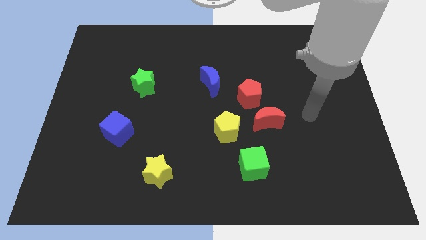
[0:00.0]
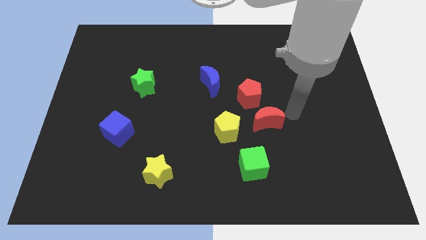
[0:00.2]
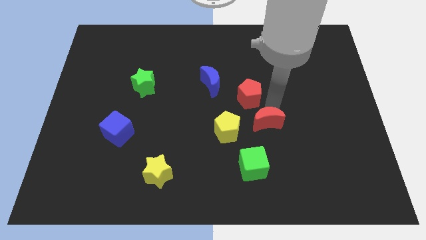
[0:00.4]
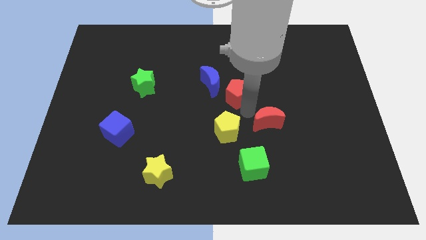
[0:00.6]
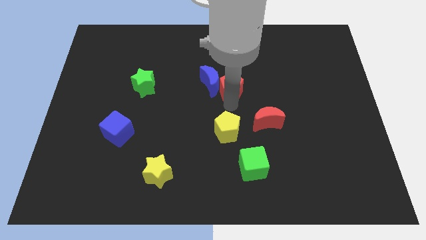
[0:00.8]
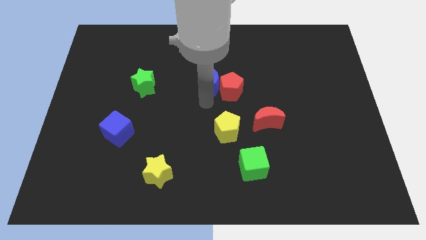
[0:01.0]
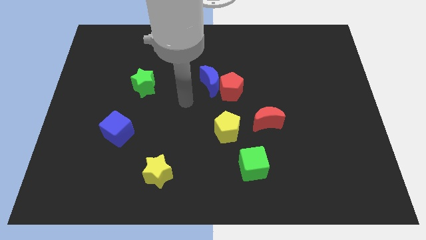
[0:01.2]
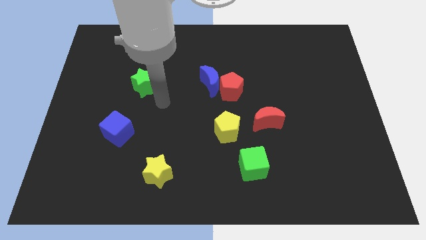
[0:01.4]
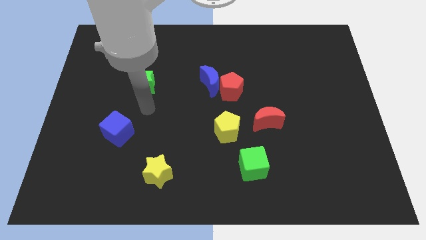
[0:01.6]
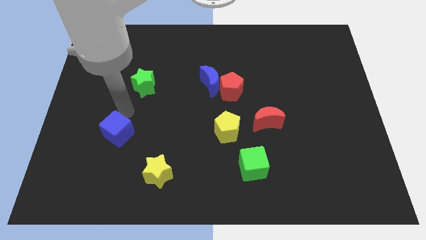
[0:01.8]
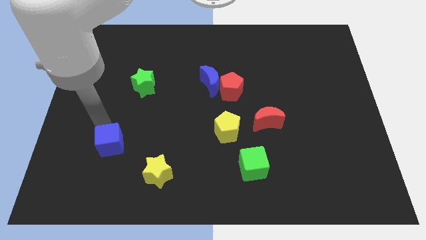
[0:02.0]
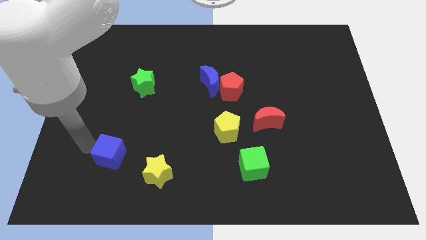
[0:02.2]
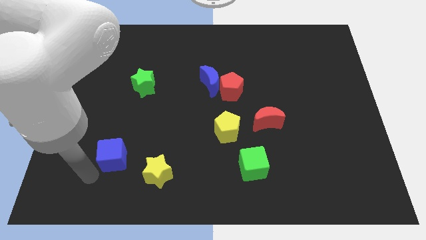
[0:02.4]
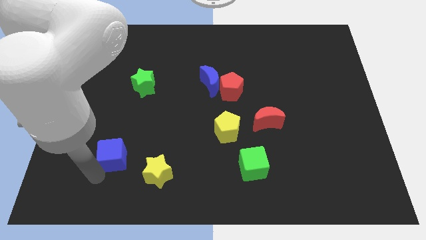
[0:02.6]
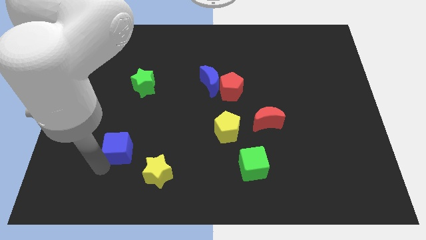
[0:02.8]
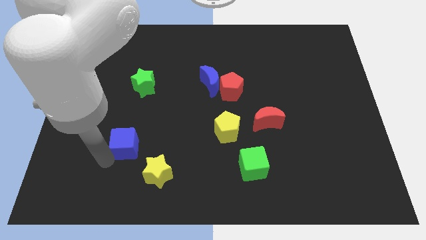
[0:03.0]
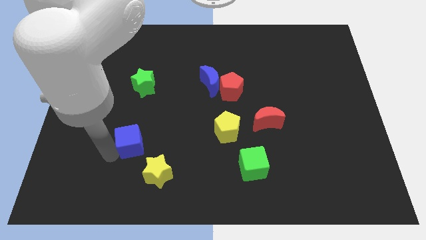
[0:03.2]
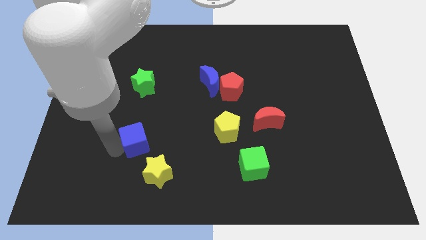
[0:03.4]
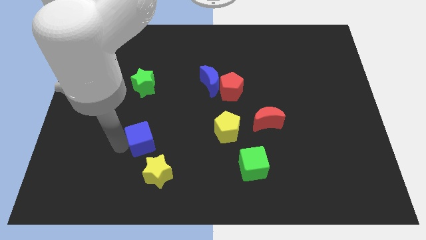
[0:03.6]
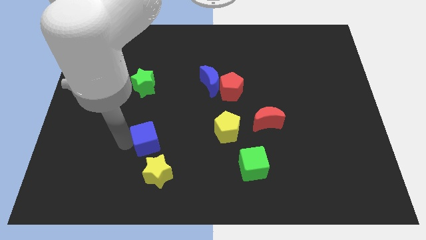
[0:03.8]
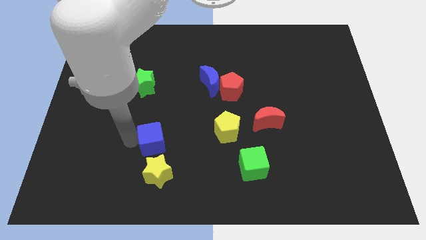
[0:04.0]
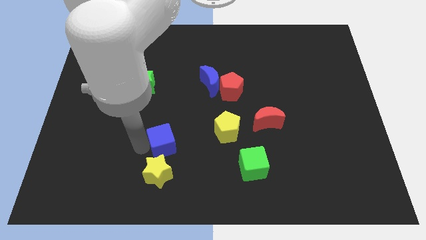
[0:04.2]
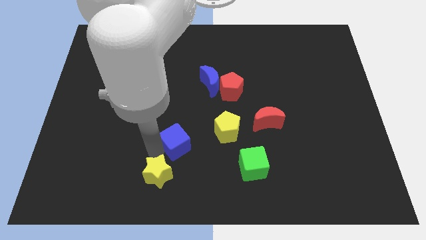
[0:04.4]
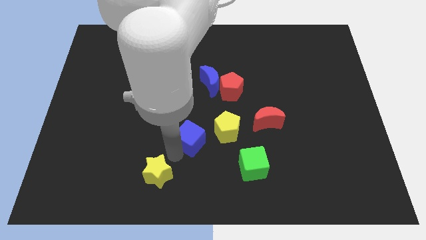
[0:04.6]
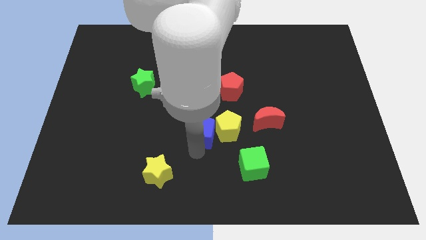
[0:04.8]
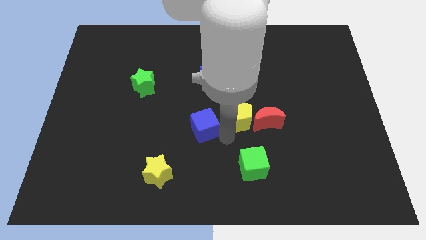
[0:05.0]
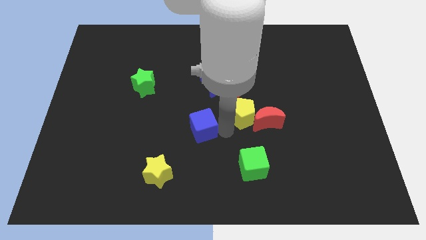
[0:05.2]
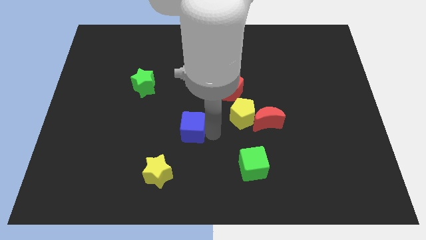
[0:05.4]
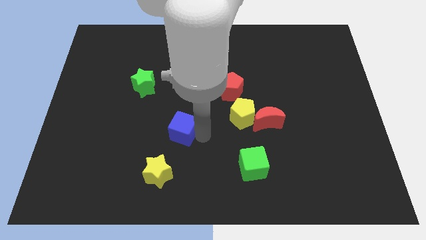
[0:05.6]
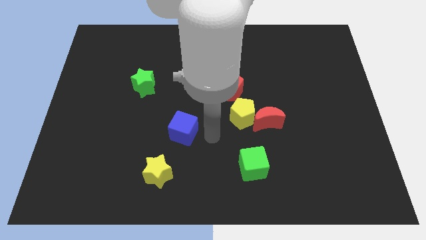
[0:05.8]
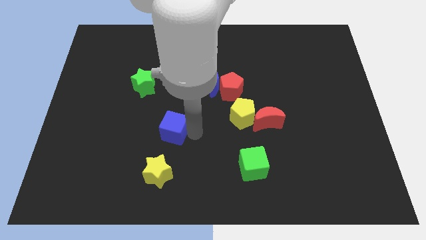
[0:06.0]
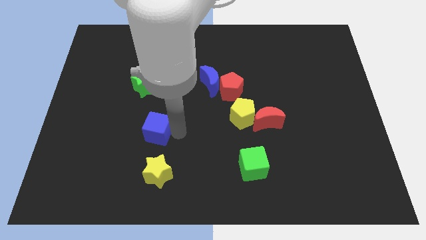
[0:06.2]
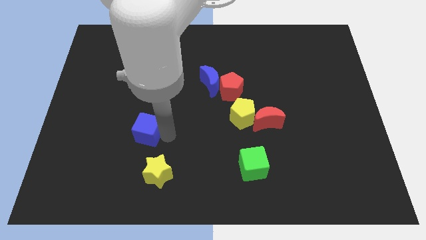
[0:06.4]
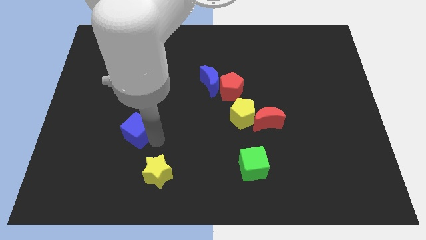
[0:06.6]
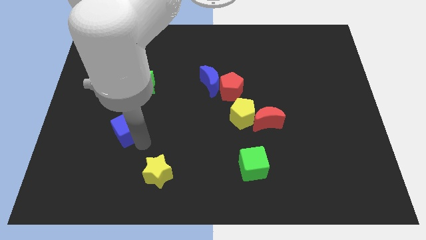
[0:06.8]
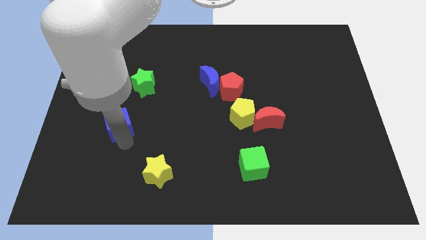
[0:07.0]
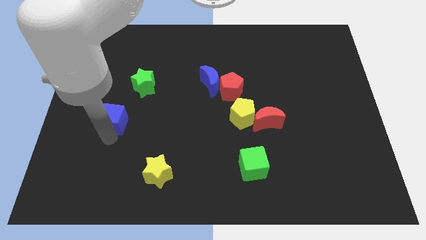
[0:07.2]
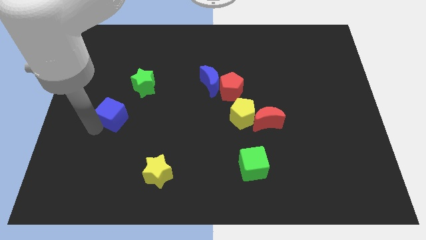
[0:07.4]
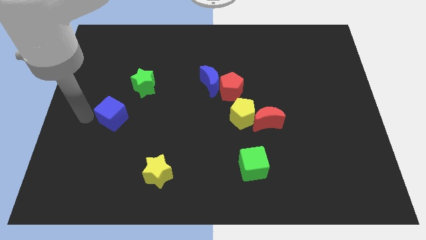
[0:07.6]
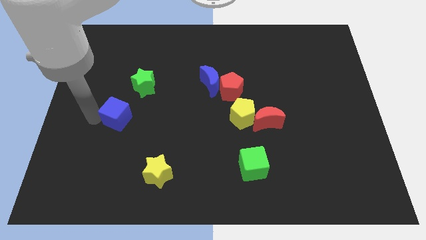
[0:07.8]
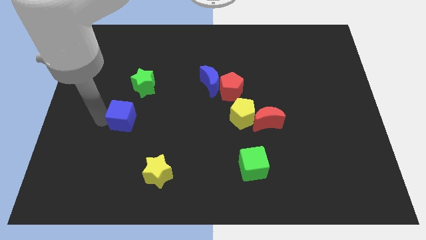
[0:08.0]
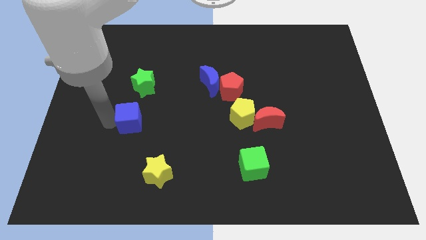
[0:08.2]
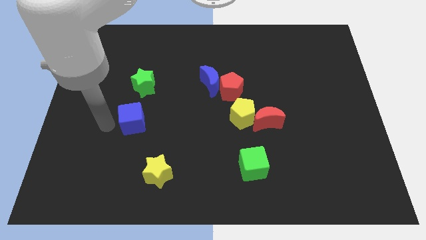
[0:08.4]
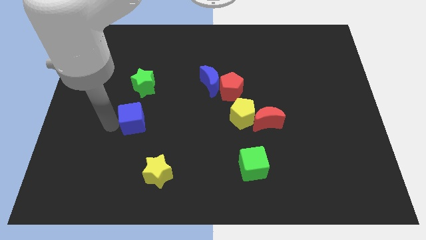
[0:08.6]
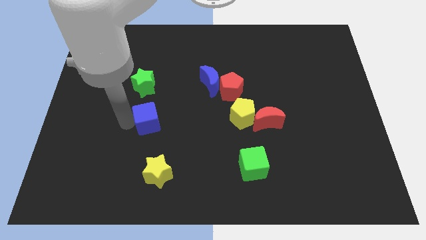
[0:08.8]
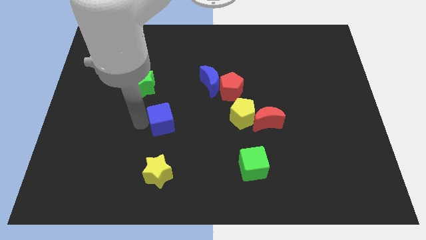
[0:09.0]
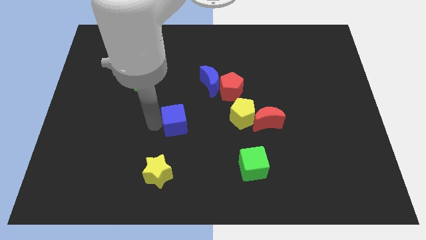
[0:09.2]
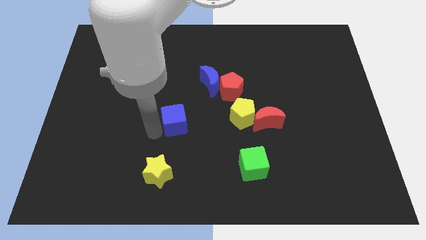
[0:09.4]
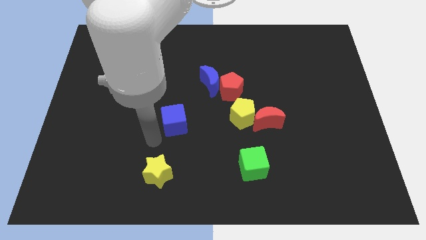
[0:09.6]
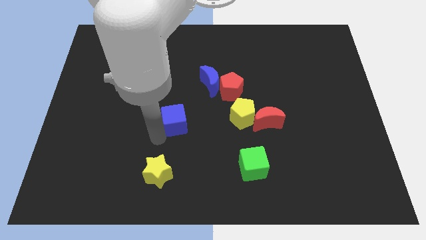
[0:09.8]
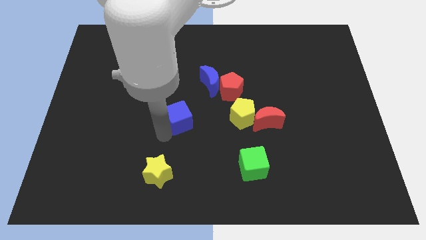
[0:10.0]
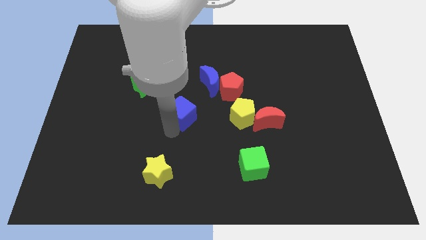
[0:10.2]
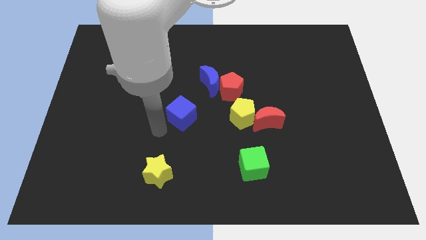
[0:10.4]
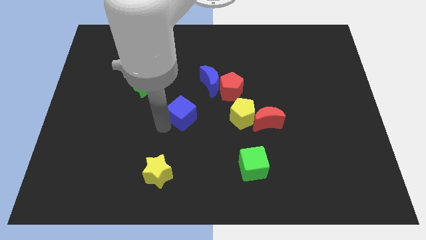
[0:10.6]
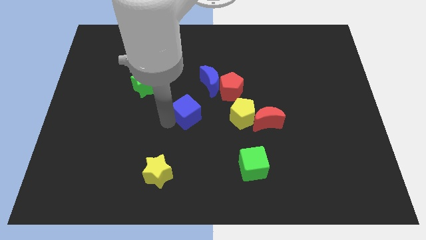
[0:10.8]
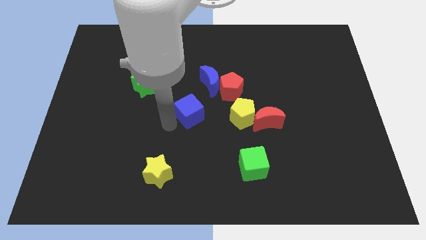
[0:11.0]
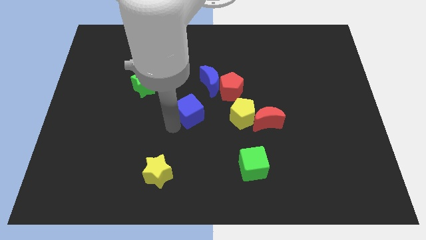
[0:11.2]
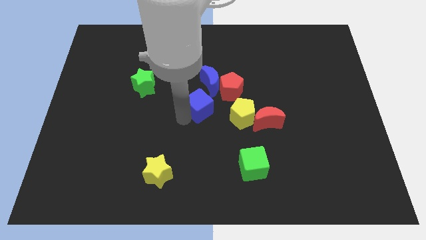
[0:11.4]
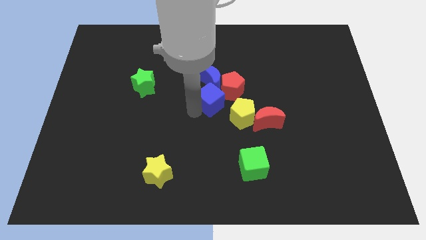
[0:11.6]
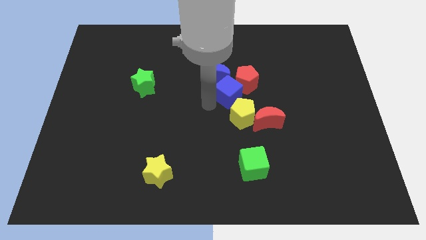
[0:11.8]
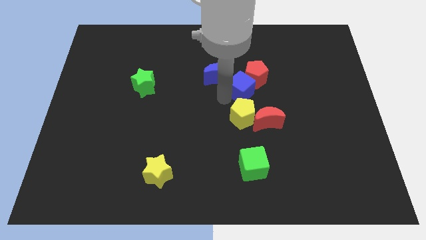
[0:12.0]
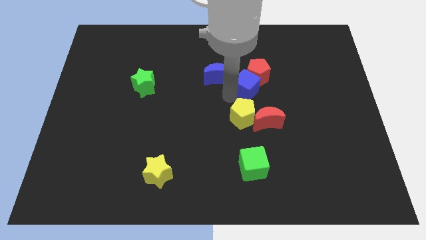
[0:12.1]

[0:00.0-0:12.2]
move the blue cube to the top side of the red moon
